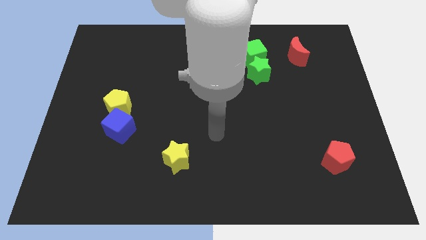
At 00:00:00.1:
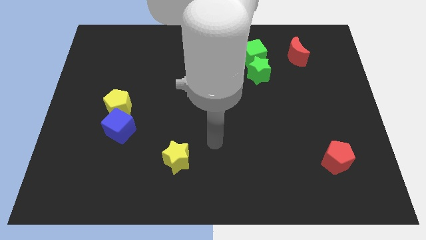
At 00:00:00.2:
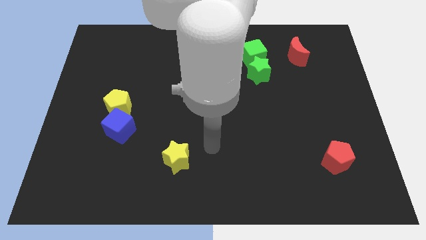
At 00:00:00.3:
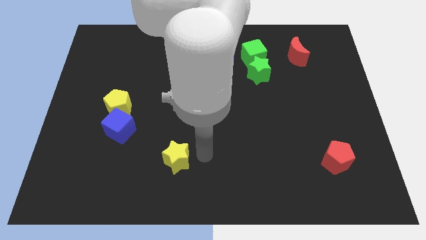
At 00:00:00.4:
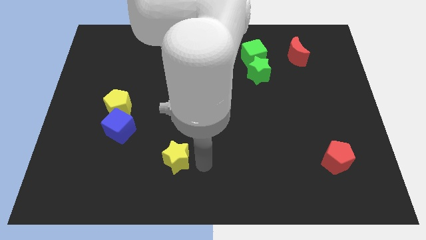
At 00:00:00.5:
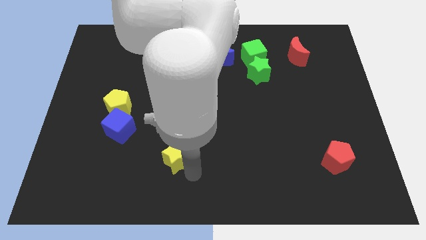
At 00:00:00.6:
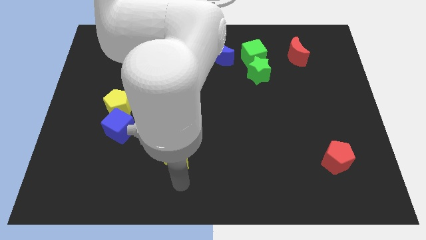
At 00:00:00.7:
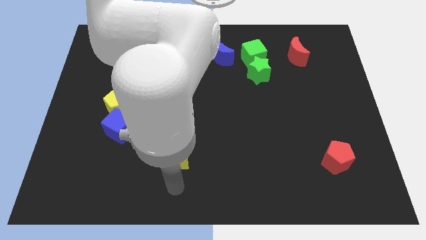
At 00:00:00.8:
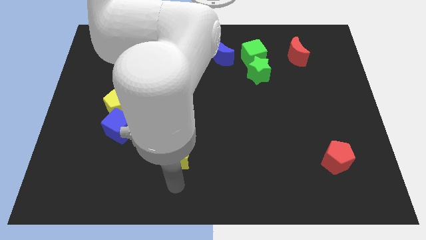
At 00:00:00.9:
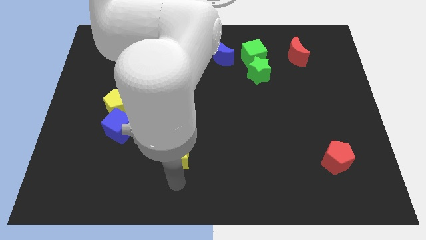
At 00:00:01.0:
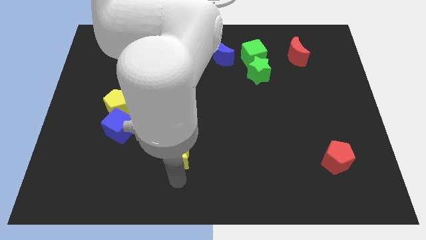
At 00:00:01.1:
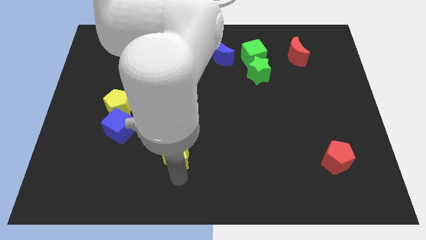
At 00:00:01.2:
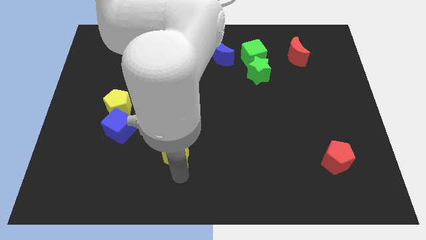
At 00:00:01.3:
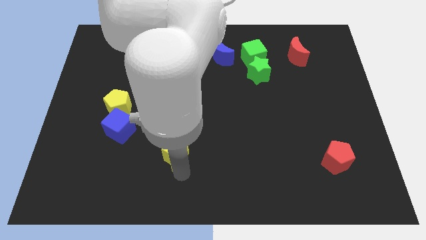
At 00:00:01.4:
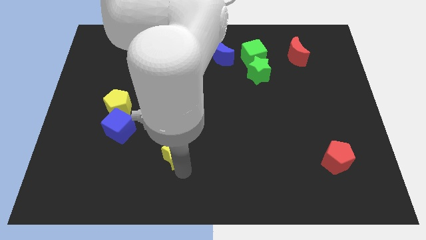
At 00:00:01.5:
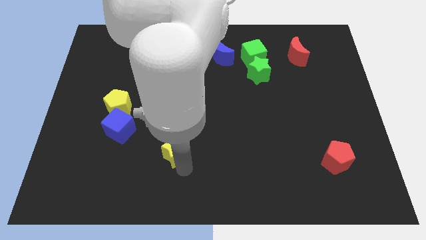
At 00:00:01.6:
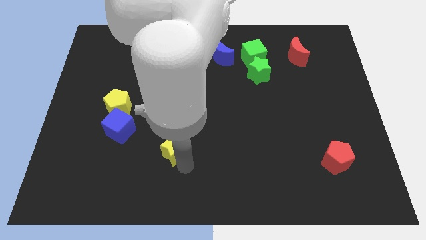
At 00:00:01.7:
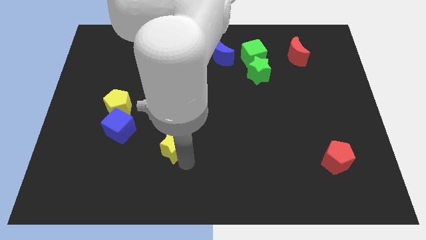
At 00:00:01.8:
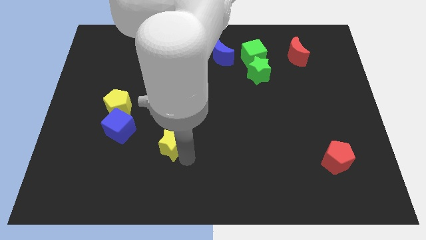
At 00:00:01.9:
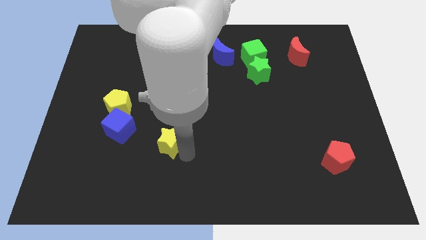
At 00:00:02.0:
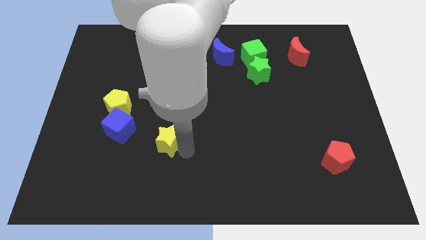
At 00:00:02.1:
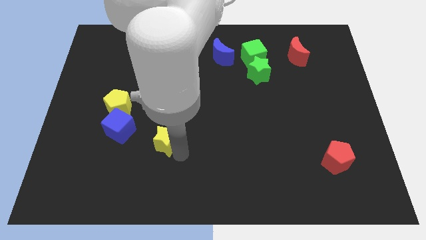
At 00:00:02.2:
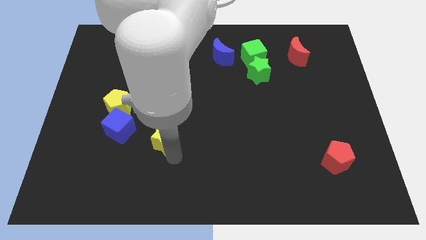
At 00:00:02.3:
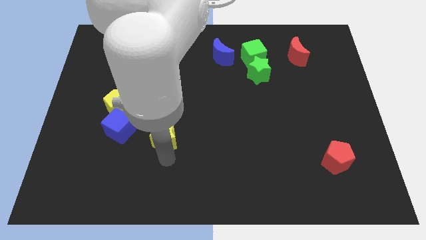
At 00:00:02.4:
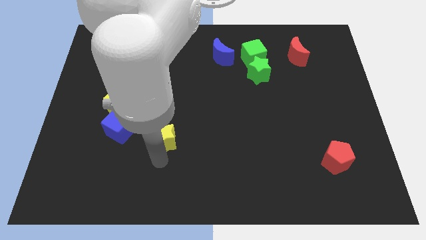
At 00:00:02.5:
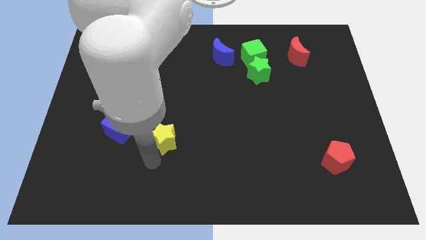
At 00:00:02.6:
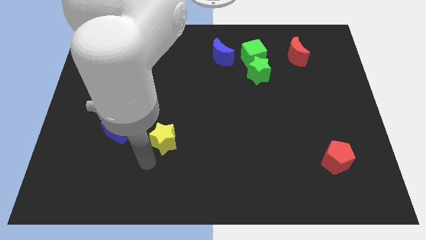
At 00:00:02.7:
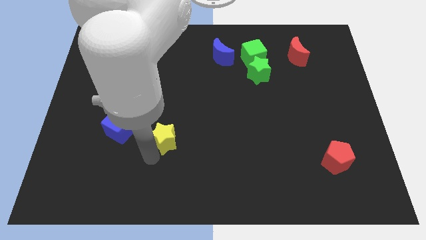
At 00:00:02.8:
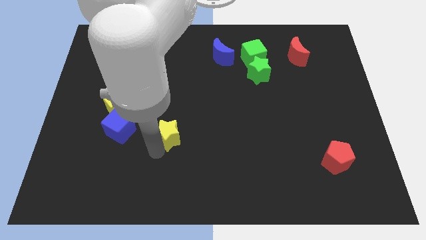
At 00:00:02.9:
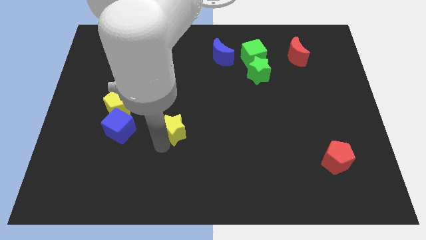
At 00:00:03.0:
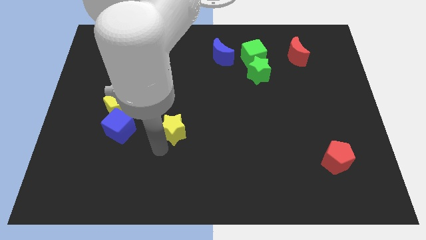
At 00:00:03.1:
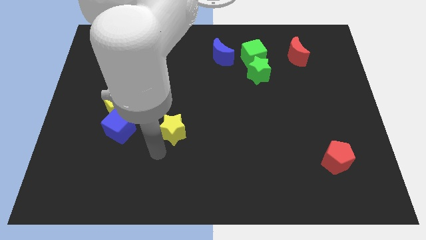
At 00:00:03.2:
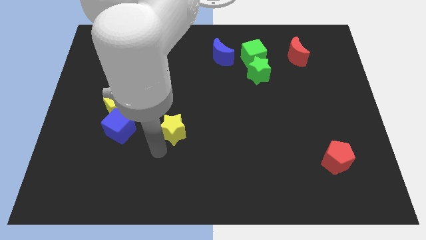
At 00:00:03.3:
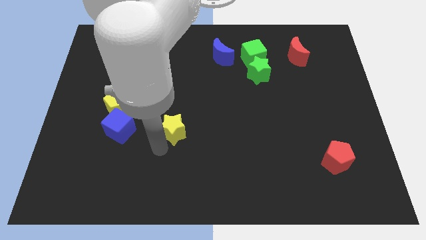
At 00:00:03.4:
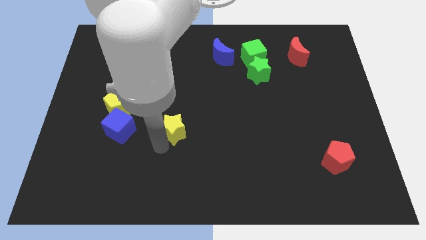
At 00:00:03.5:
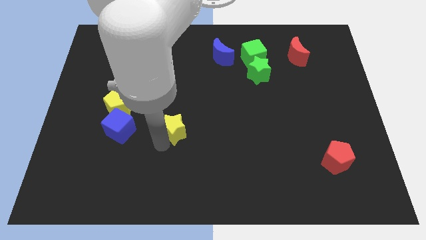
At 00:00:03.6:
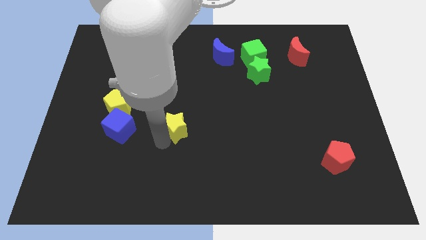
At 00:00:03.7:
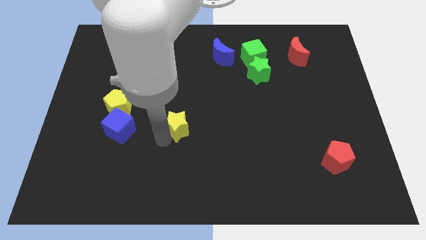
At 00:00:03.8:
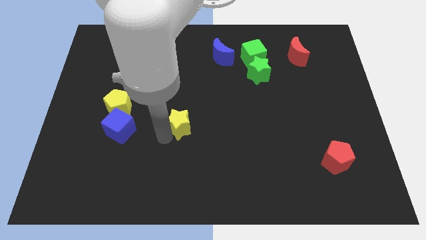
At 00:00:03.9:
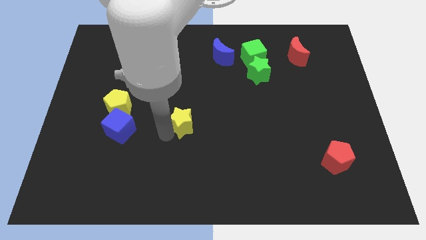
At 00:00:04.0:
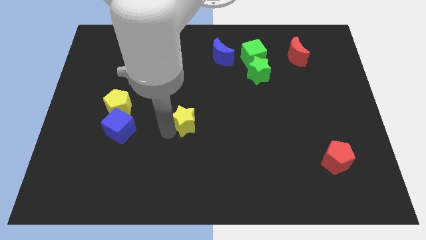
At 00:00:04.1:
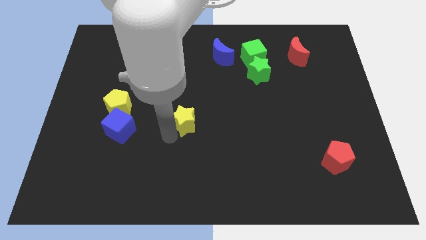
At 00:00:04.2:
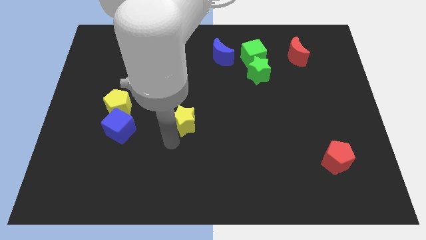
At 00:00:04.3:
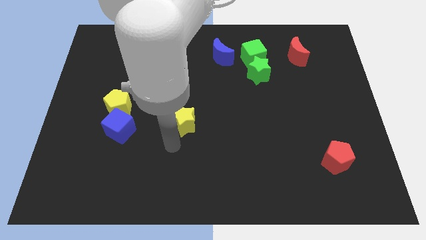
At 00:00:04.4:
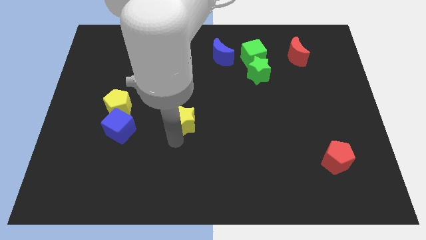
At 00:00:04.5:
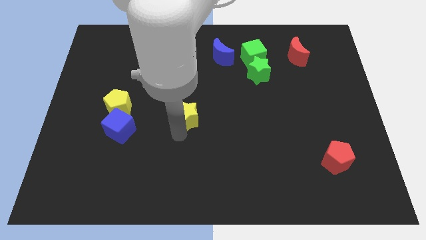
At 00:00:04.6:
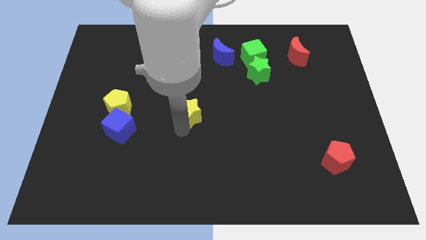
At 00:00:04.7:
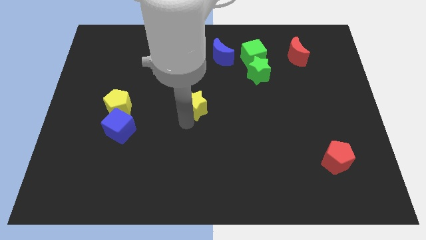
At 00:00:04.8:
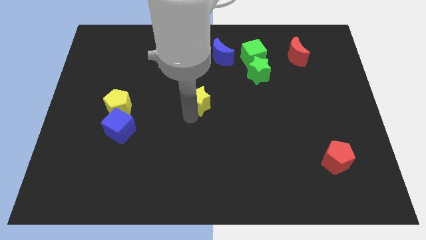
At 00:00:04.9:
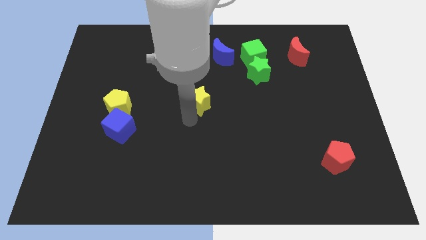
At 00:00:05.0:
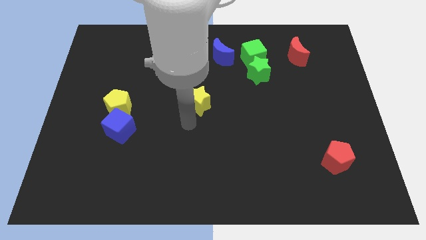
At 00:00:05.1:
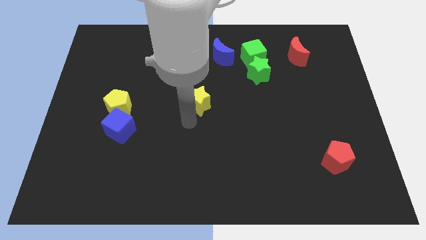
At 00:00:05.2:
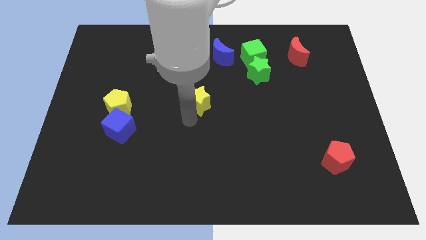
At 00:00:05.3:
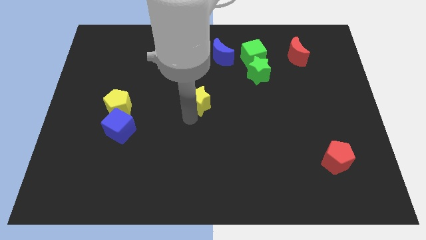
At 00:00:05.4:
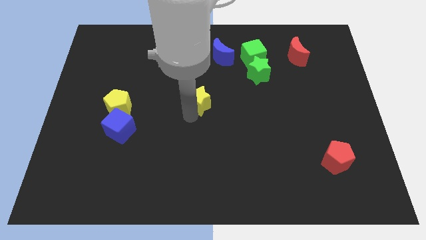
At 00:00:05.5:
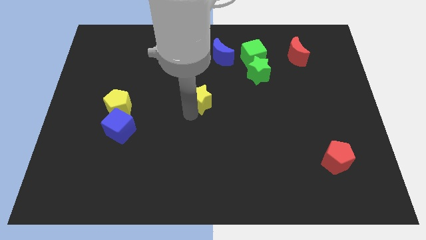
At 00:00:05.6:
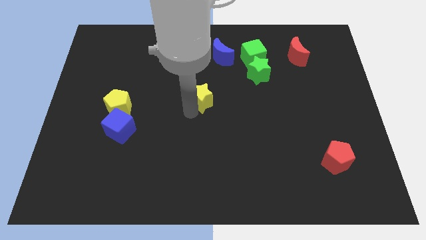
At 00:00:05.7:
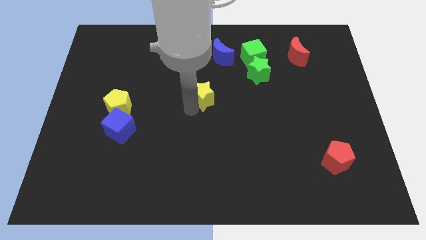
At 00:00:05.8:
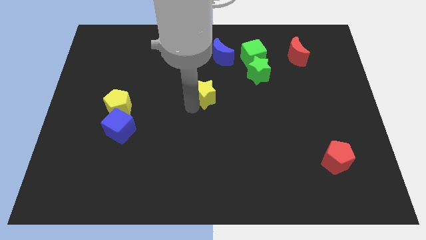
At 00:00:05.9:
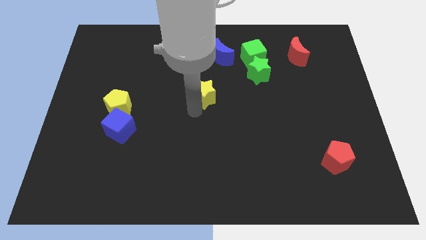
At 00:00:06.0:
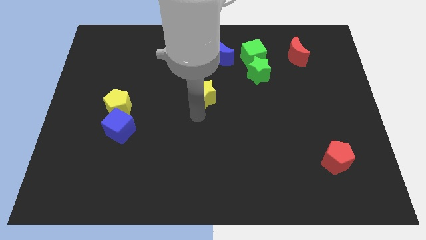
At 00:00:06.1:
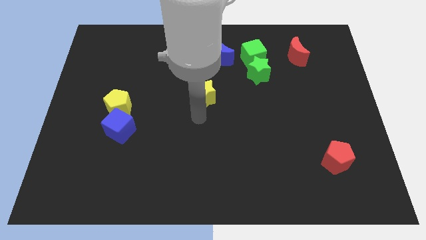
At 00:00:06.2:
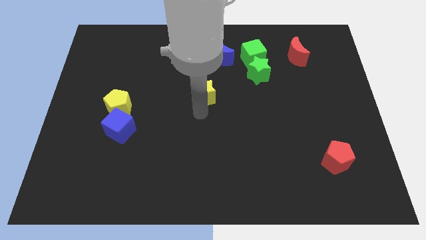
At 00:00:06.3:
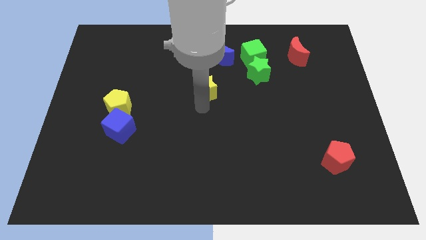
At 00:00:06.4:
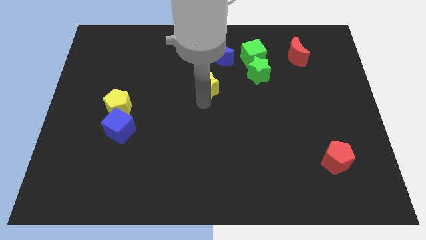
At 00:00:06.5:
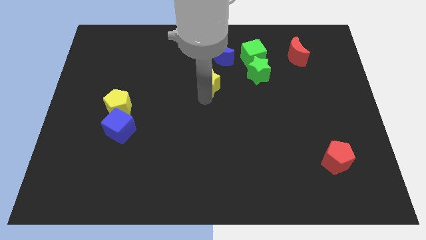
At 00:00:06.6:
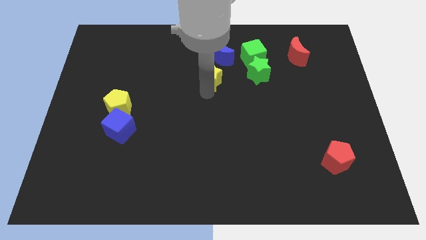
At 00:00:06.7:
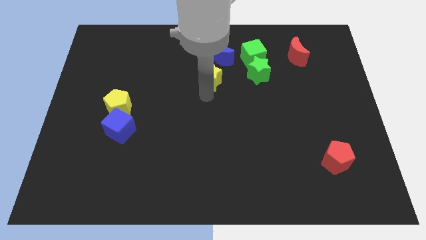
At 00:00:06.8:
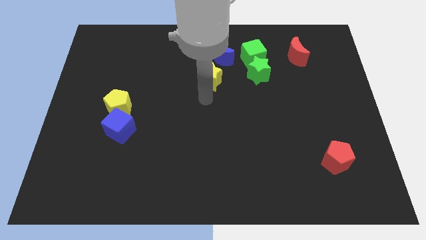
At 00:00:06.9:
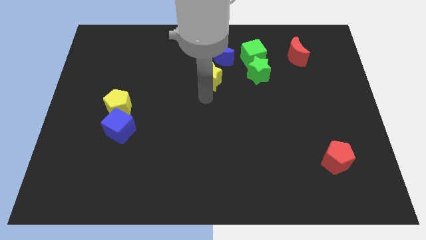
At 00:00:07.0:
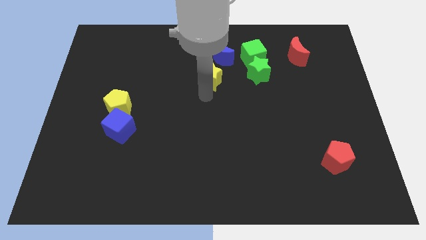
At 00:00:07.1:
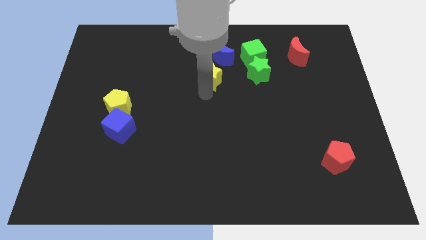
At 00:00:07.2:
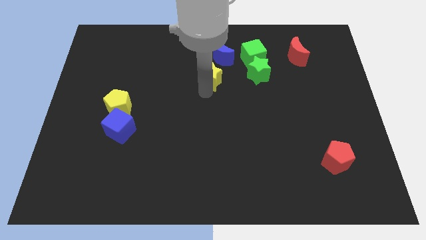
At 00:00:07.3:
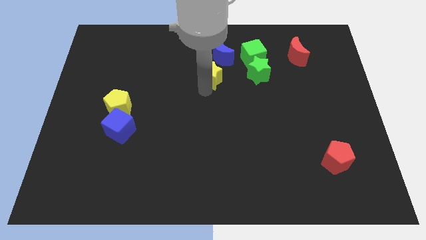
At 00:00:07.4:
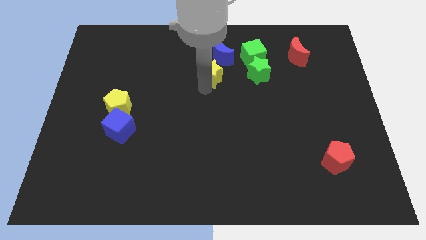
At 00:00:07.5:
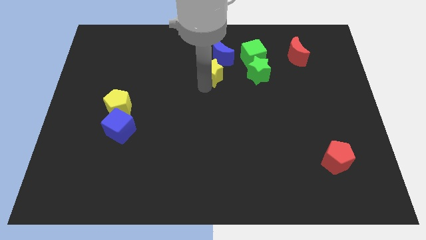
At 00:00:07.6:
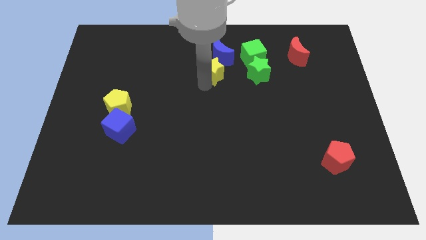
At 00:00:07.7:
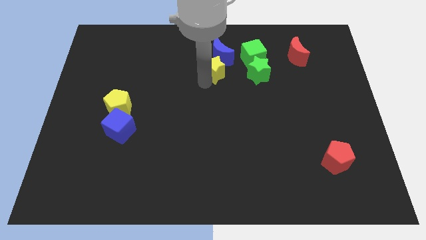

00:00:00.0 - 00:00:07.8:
put the yellow star close to the blue moon
